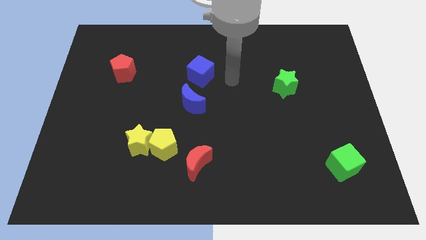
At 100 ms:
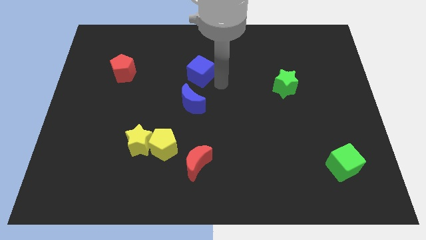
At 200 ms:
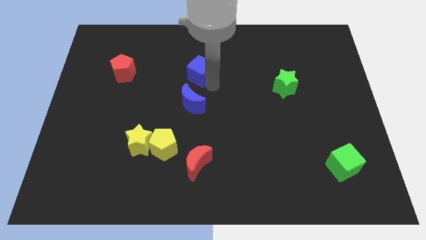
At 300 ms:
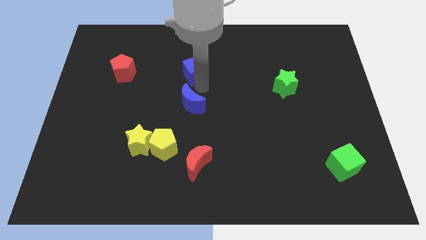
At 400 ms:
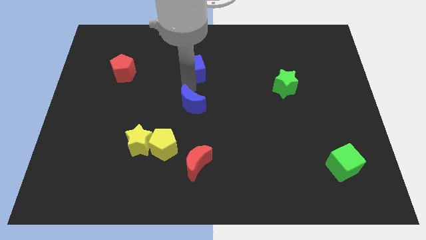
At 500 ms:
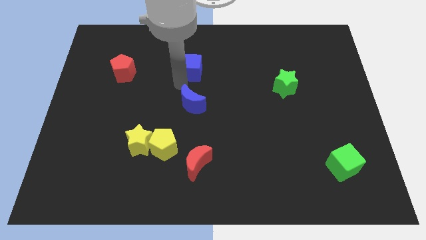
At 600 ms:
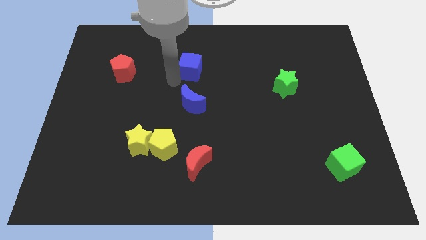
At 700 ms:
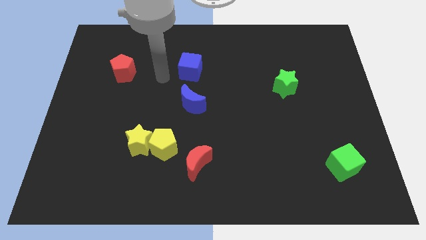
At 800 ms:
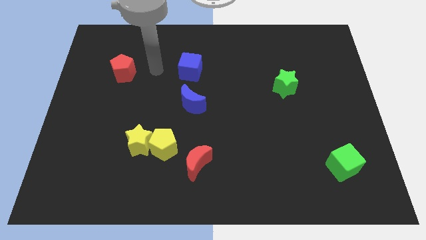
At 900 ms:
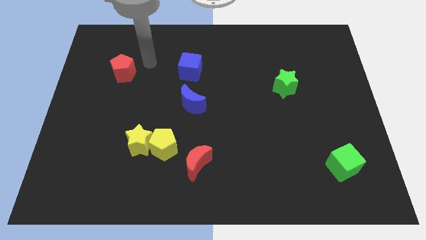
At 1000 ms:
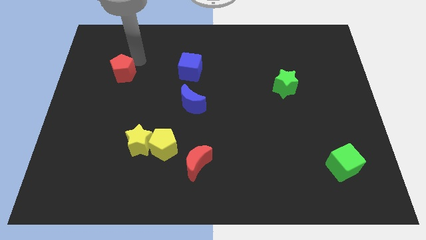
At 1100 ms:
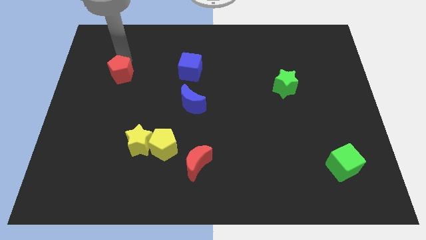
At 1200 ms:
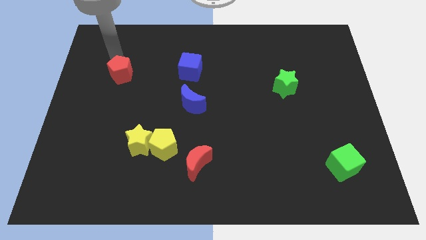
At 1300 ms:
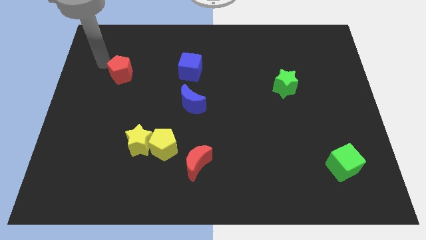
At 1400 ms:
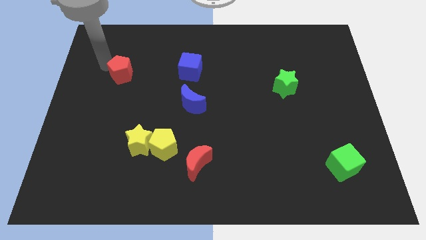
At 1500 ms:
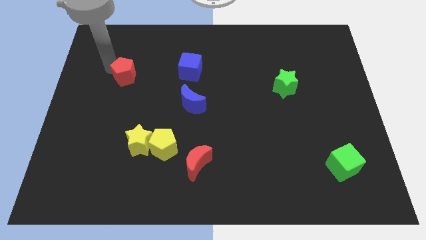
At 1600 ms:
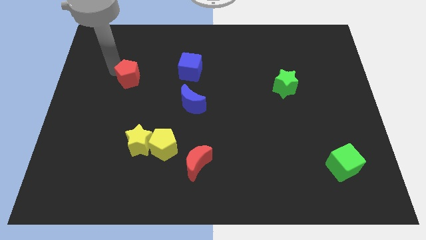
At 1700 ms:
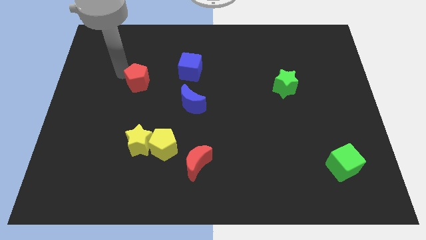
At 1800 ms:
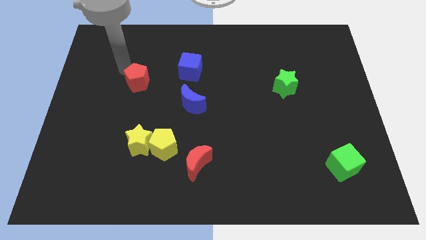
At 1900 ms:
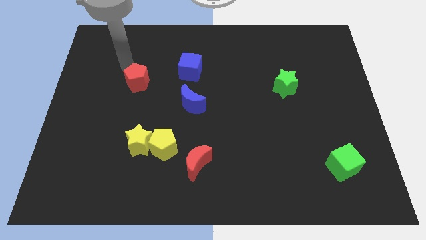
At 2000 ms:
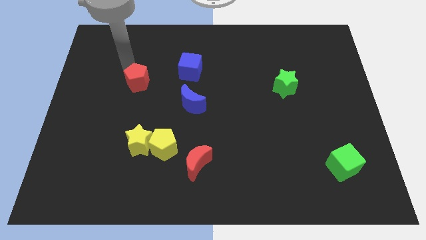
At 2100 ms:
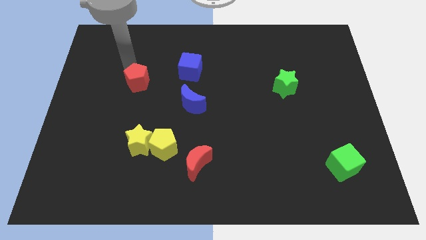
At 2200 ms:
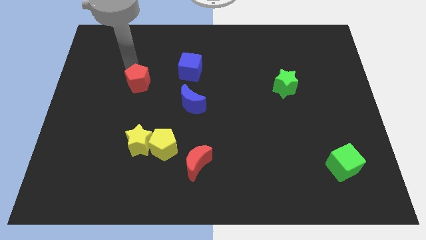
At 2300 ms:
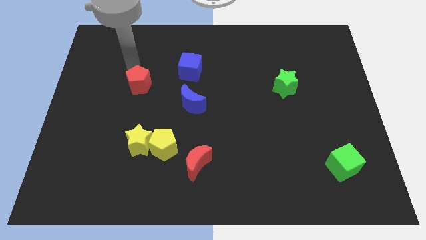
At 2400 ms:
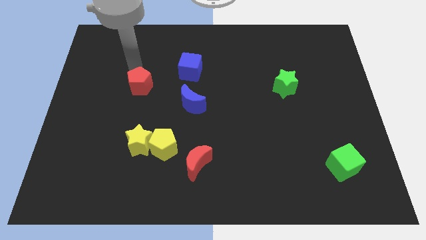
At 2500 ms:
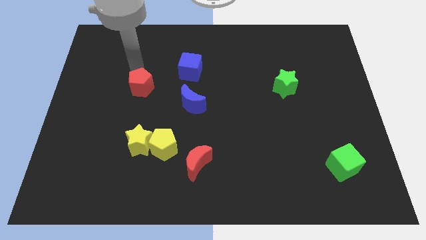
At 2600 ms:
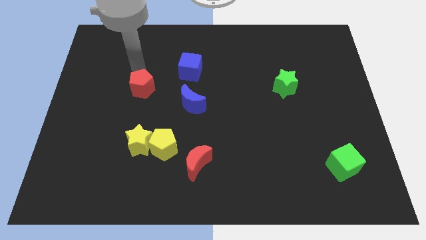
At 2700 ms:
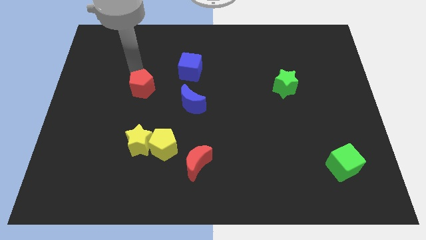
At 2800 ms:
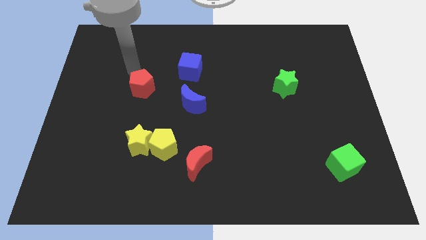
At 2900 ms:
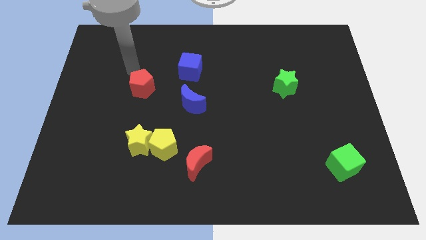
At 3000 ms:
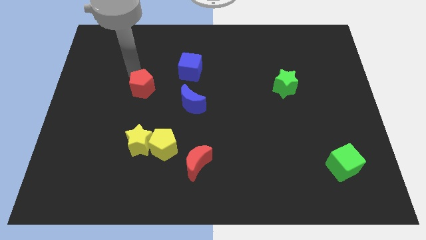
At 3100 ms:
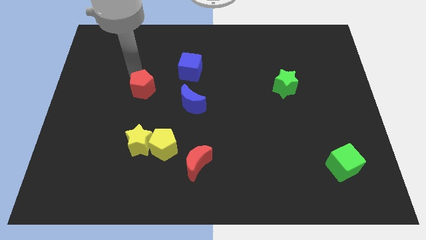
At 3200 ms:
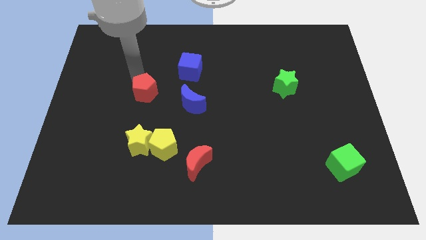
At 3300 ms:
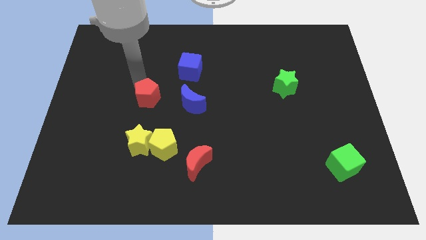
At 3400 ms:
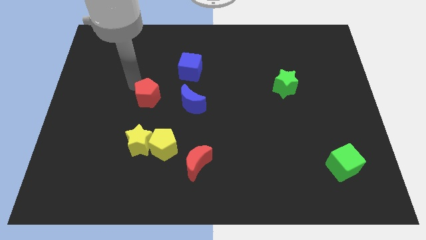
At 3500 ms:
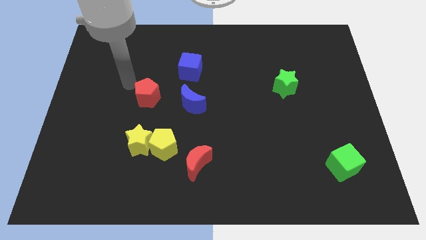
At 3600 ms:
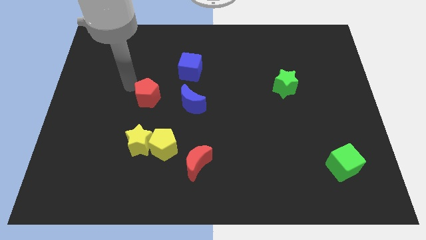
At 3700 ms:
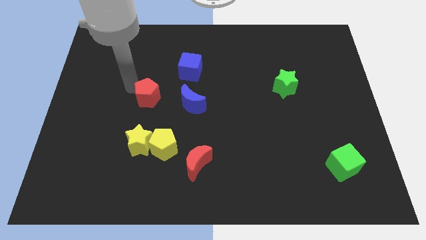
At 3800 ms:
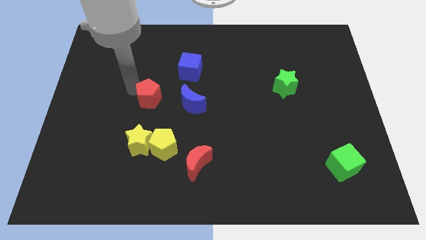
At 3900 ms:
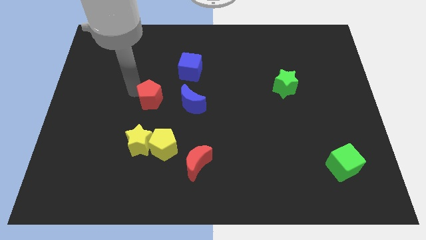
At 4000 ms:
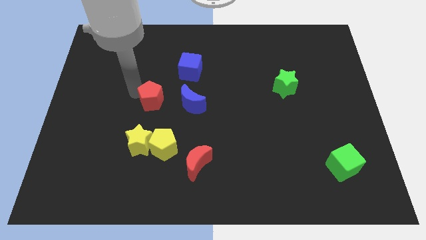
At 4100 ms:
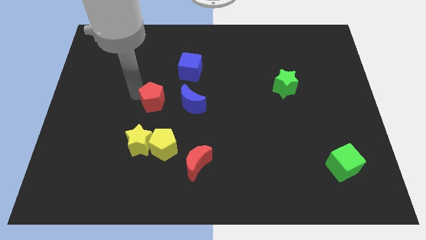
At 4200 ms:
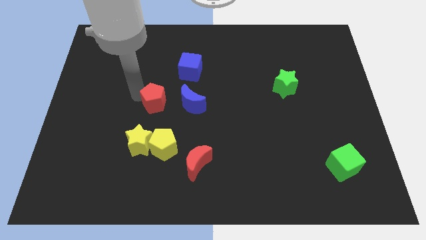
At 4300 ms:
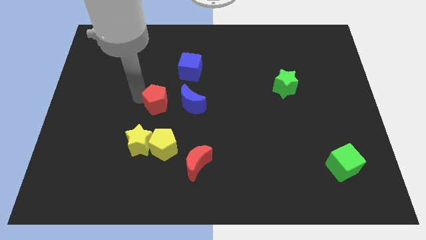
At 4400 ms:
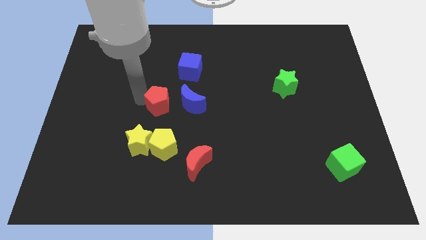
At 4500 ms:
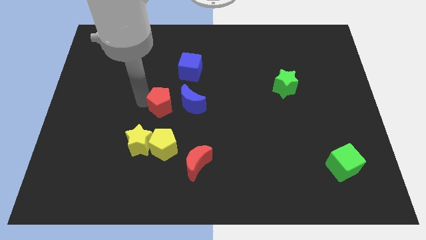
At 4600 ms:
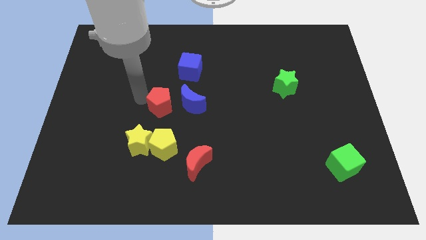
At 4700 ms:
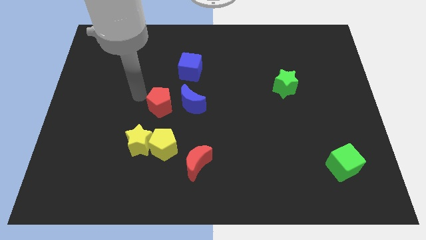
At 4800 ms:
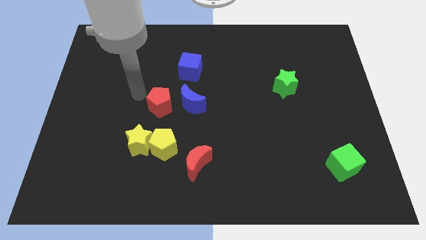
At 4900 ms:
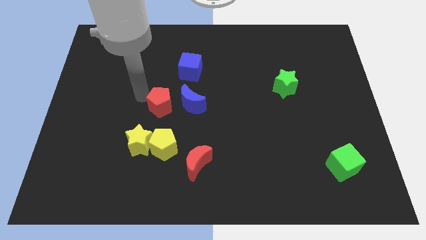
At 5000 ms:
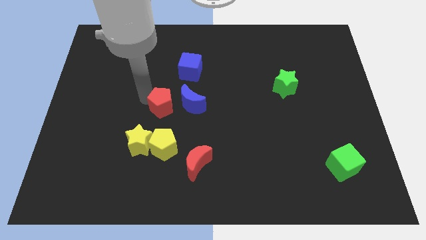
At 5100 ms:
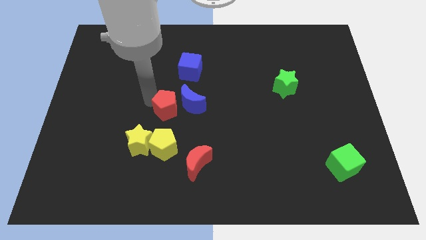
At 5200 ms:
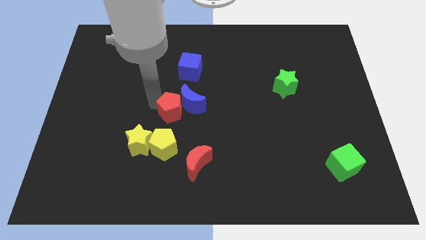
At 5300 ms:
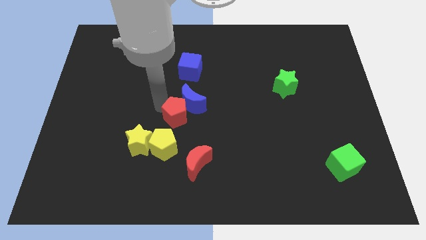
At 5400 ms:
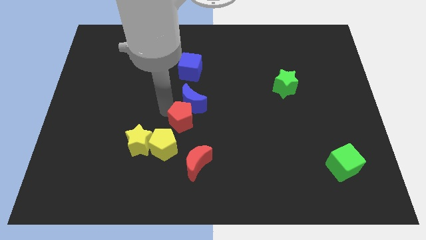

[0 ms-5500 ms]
put the red pentagon to the top of the red moon

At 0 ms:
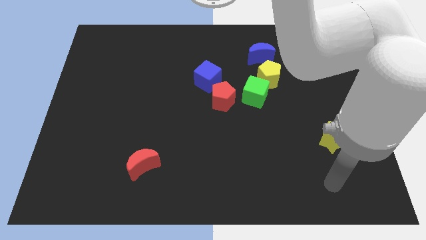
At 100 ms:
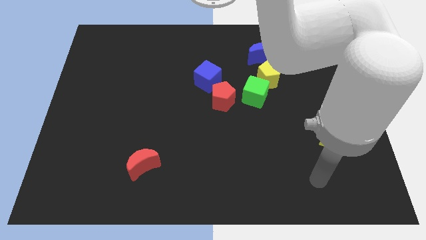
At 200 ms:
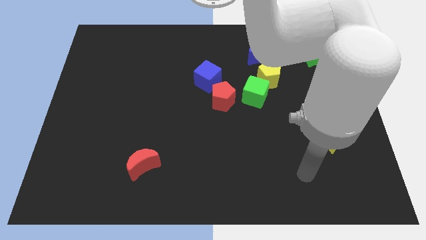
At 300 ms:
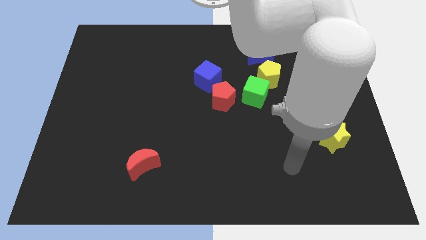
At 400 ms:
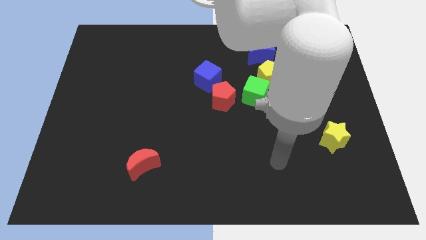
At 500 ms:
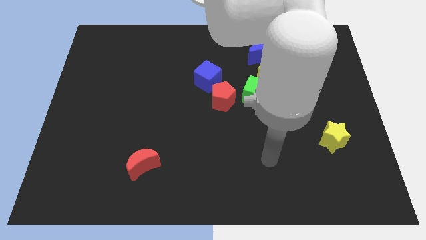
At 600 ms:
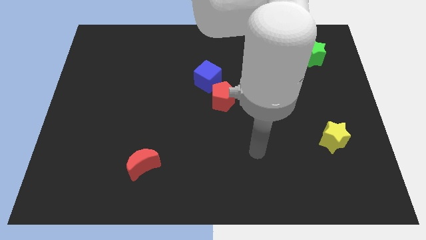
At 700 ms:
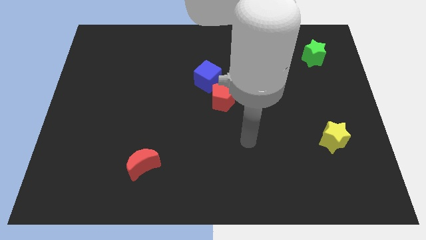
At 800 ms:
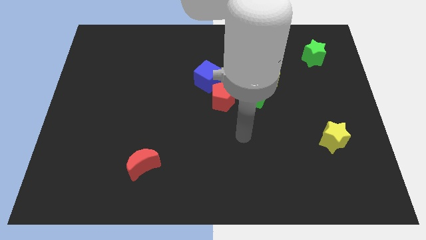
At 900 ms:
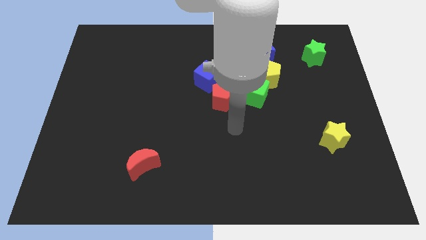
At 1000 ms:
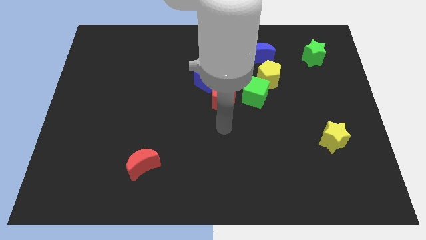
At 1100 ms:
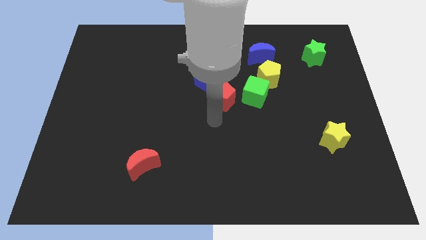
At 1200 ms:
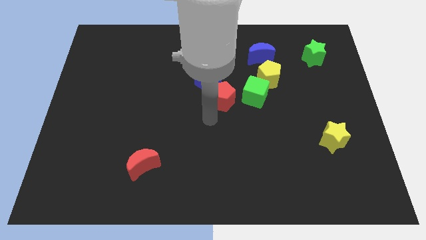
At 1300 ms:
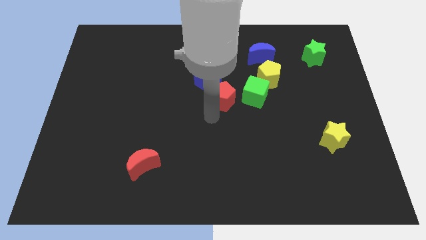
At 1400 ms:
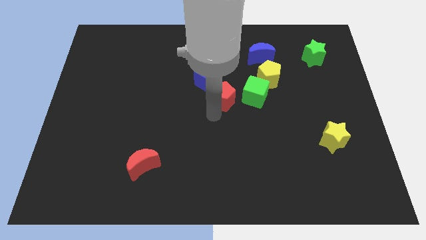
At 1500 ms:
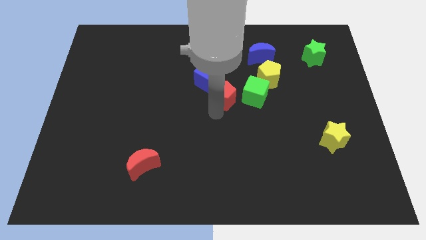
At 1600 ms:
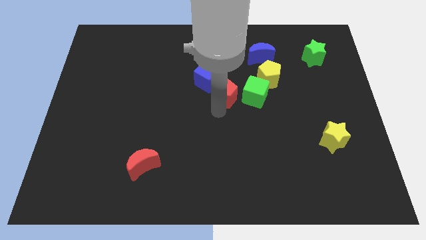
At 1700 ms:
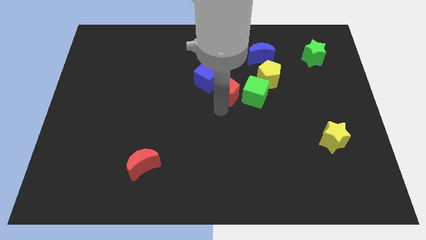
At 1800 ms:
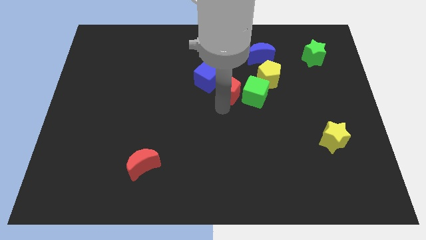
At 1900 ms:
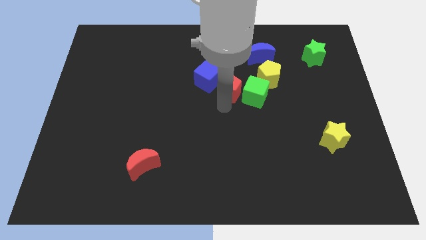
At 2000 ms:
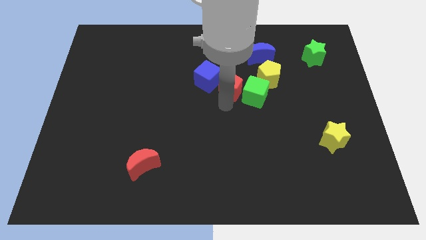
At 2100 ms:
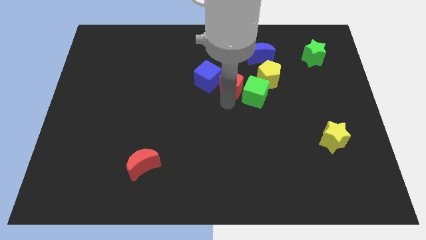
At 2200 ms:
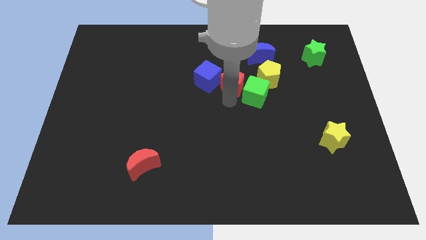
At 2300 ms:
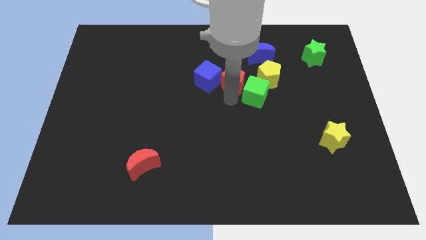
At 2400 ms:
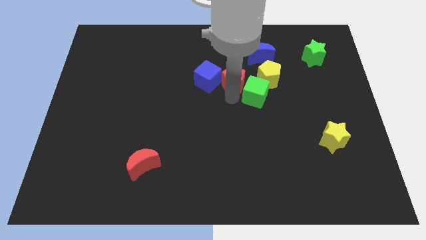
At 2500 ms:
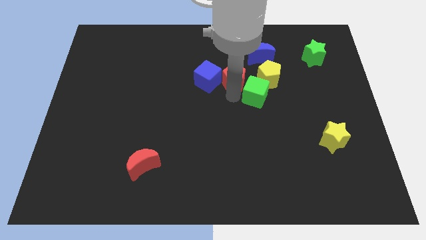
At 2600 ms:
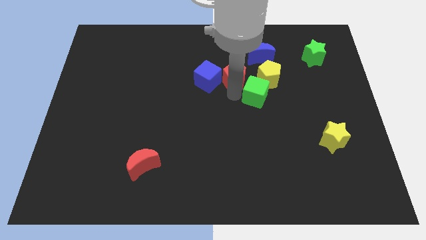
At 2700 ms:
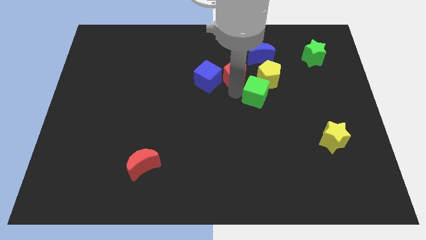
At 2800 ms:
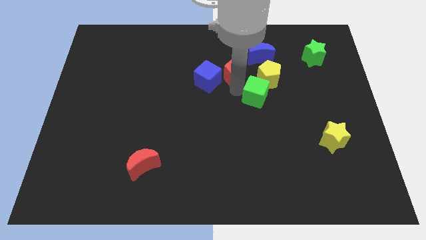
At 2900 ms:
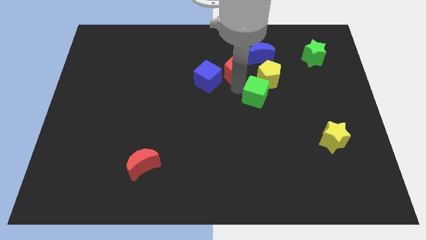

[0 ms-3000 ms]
put the red pentagon to the top left side of the yellow pentagon

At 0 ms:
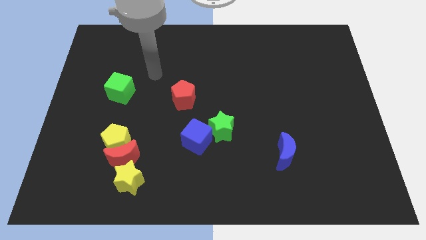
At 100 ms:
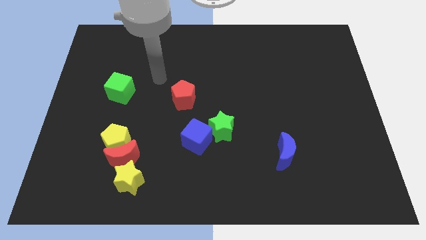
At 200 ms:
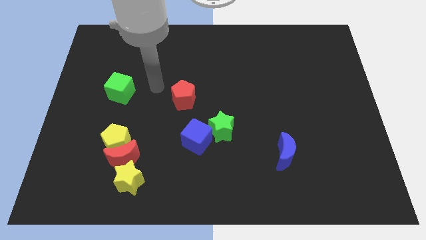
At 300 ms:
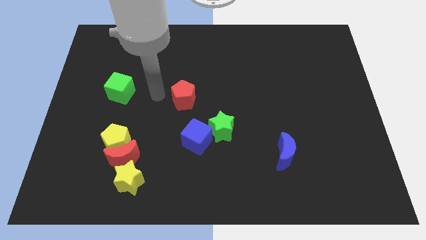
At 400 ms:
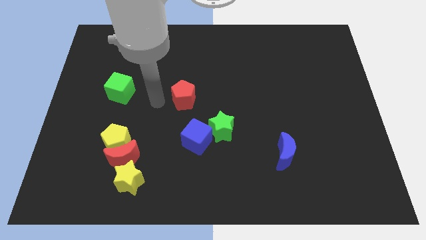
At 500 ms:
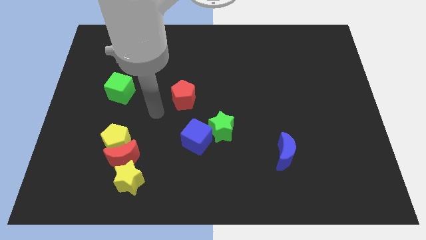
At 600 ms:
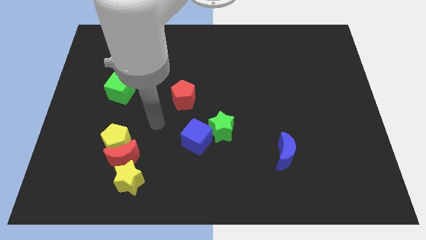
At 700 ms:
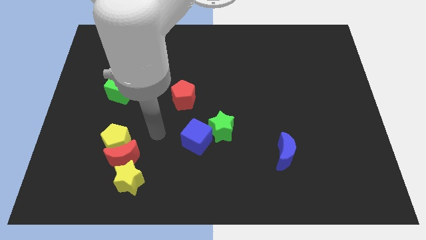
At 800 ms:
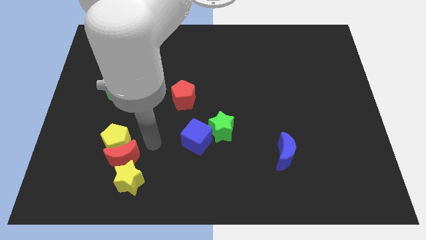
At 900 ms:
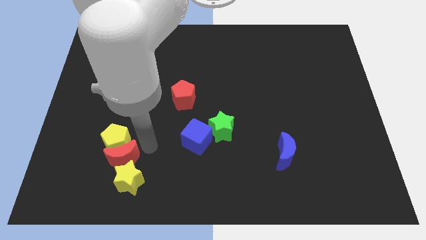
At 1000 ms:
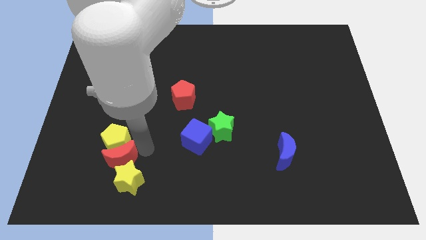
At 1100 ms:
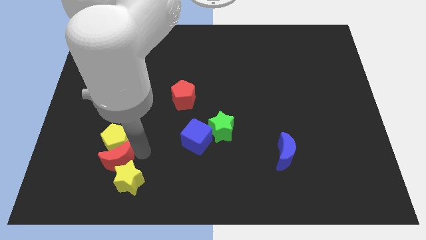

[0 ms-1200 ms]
push the red moon to the left of the yellow star
